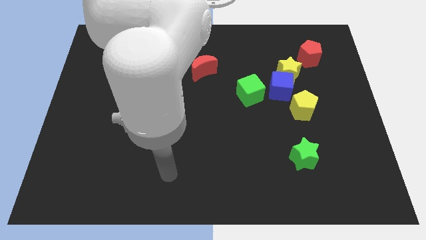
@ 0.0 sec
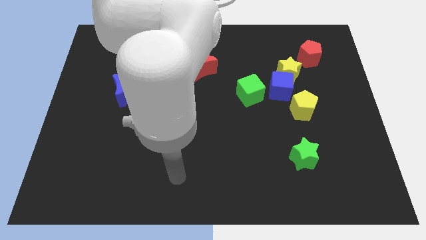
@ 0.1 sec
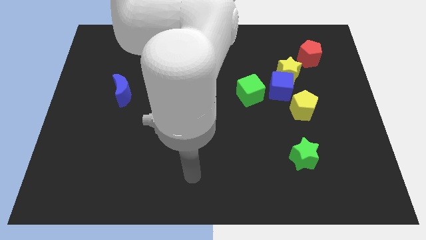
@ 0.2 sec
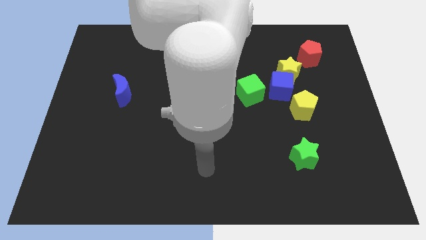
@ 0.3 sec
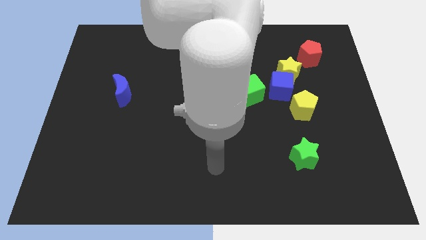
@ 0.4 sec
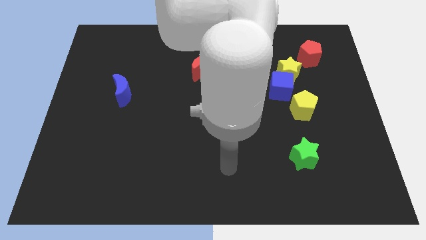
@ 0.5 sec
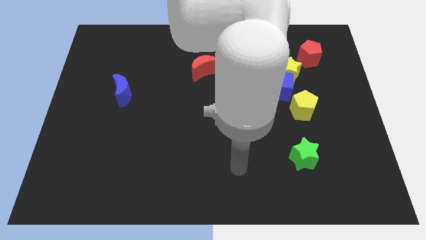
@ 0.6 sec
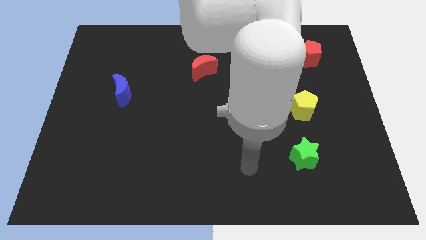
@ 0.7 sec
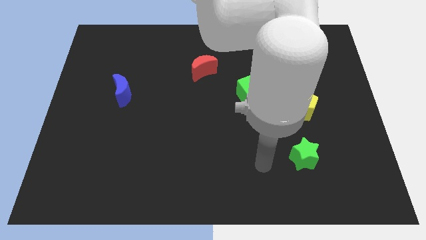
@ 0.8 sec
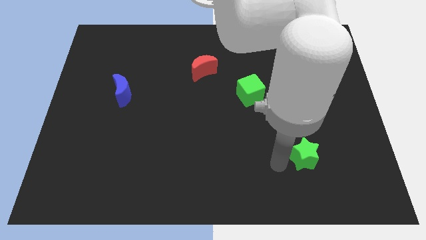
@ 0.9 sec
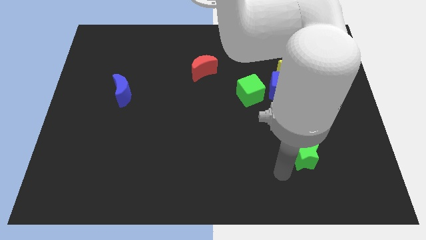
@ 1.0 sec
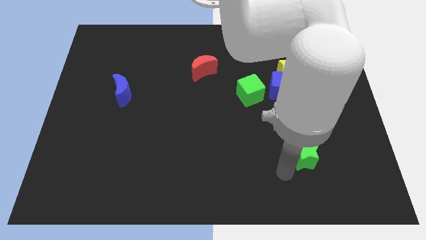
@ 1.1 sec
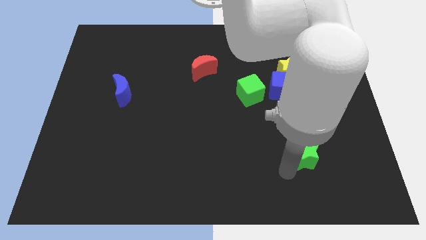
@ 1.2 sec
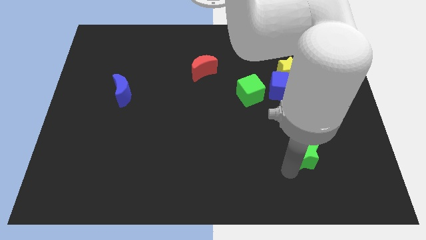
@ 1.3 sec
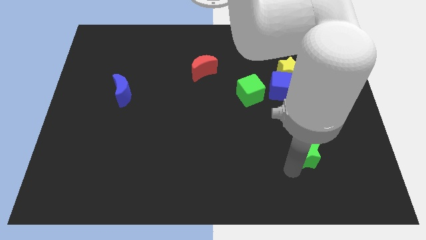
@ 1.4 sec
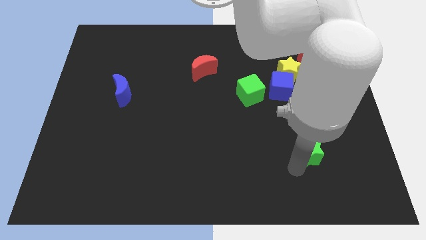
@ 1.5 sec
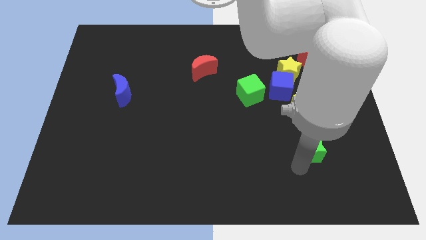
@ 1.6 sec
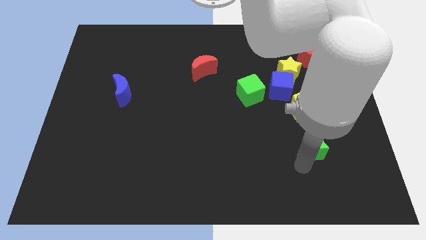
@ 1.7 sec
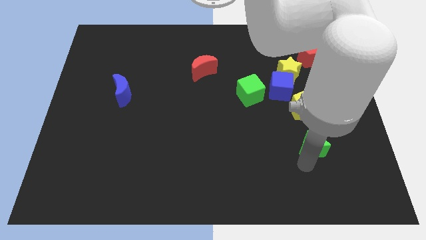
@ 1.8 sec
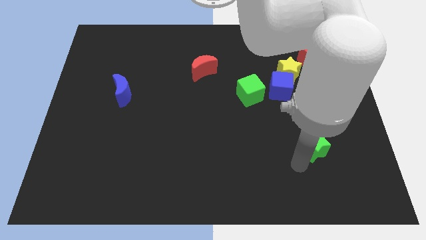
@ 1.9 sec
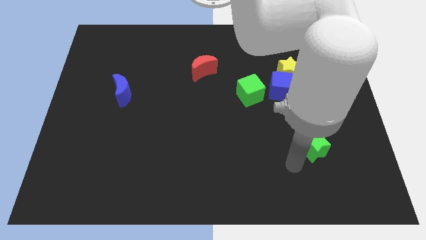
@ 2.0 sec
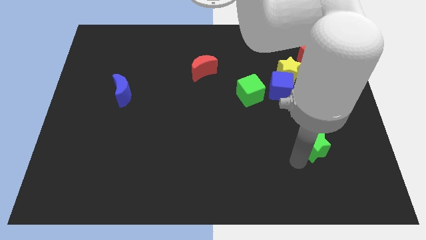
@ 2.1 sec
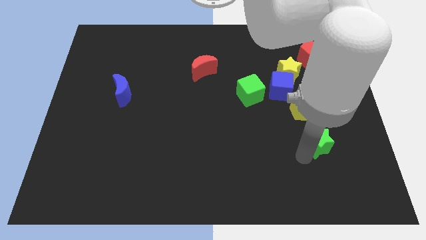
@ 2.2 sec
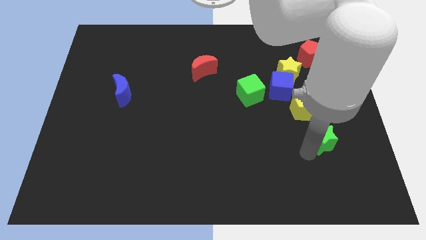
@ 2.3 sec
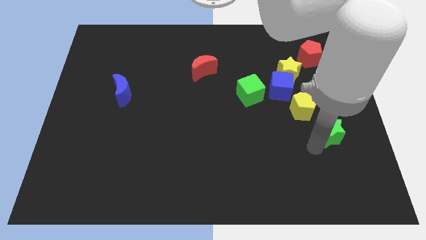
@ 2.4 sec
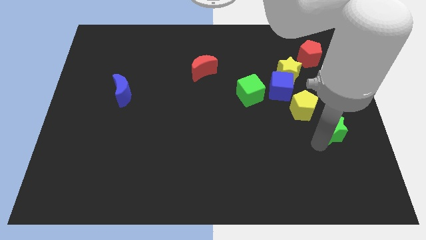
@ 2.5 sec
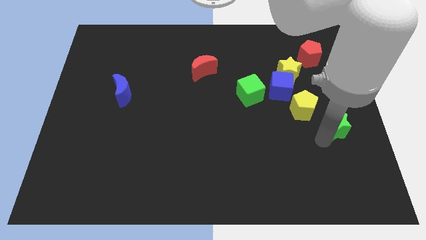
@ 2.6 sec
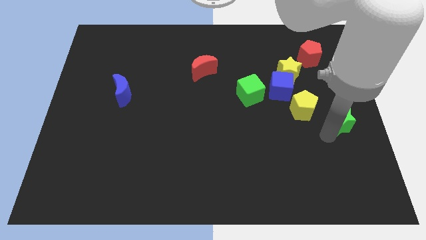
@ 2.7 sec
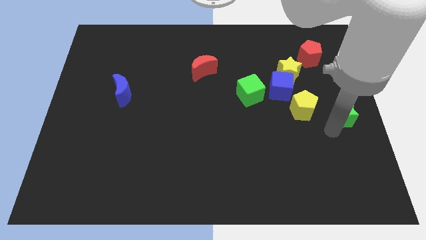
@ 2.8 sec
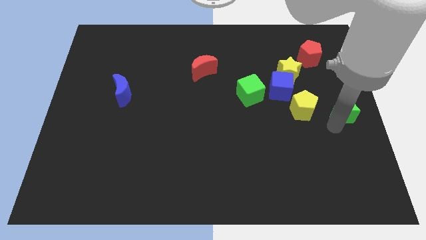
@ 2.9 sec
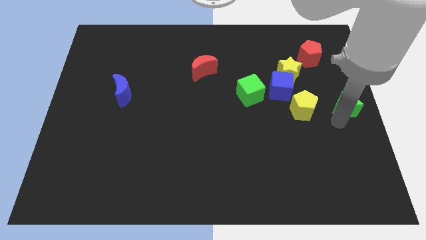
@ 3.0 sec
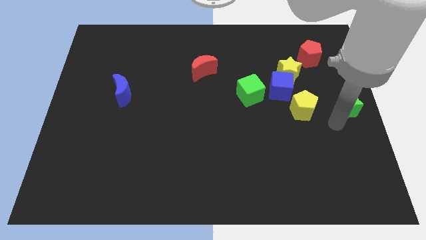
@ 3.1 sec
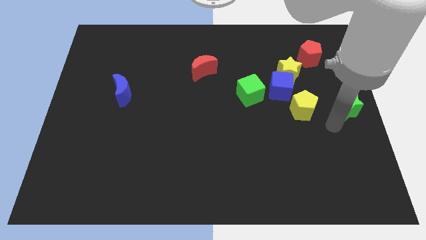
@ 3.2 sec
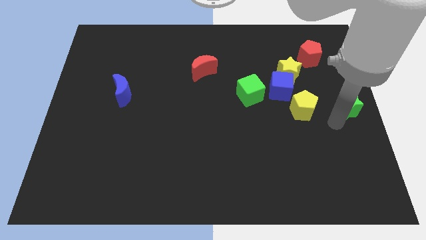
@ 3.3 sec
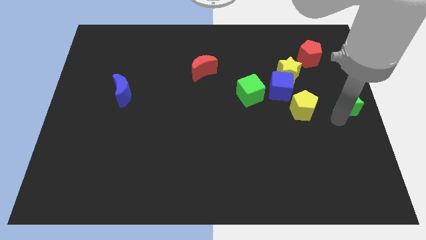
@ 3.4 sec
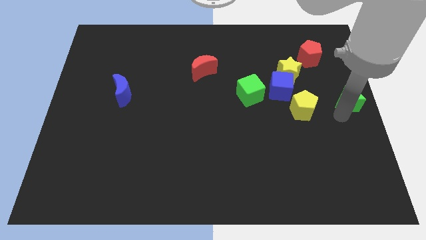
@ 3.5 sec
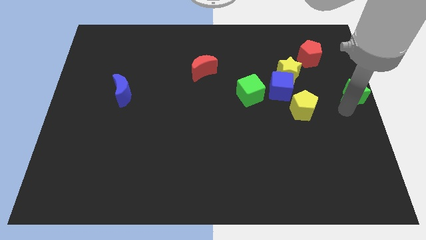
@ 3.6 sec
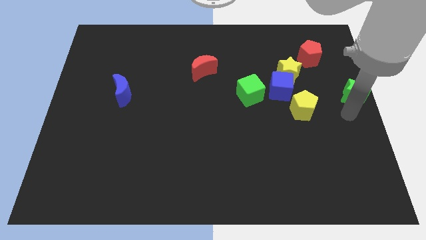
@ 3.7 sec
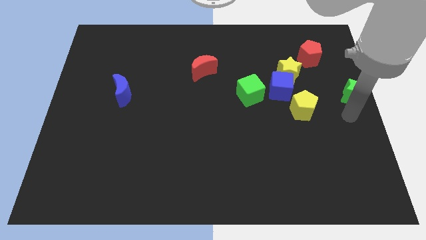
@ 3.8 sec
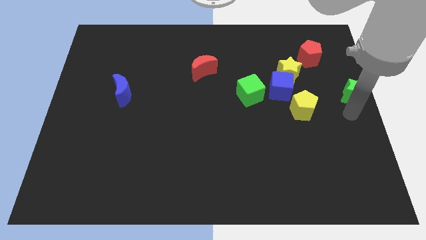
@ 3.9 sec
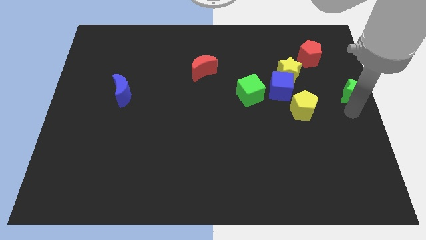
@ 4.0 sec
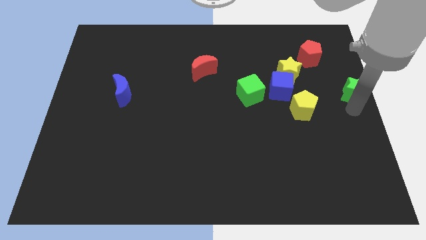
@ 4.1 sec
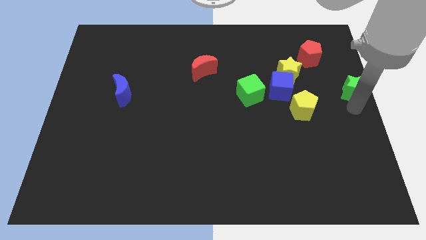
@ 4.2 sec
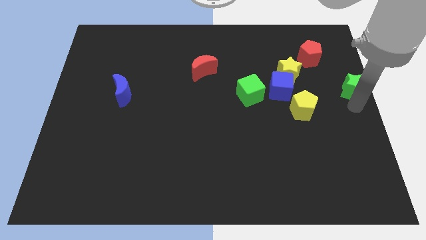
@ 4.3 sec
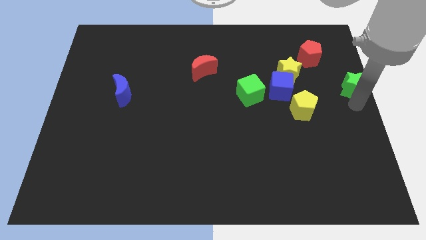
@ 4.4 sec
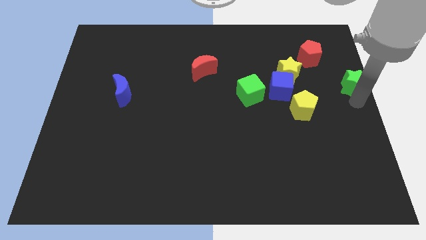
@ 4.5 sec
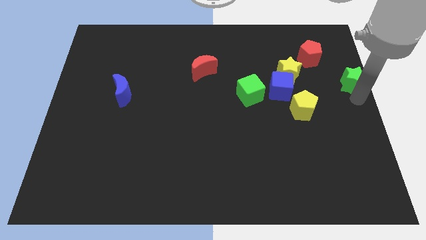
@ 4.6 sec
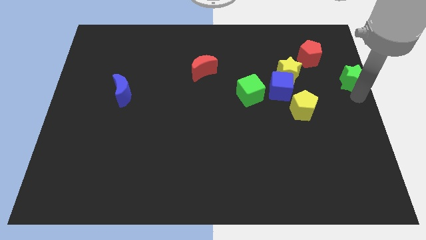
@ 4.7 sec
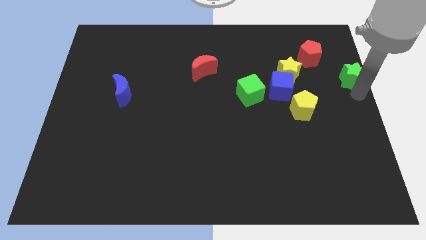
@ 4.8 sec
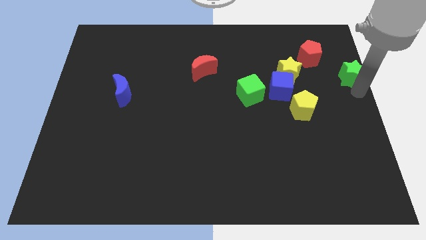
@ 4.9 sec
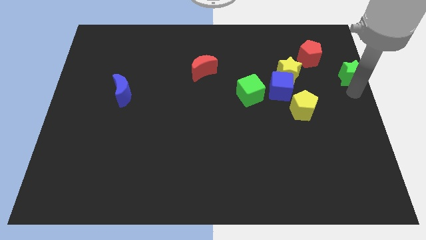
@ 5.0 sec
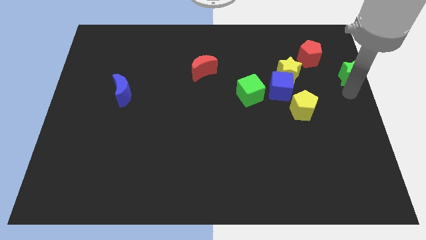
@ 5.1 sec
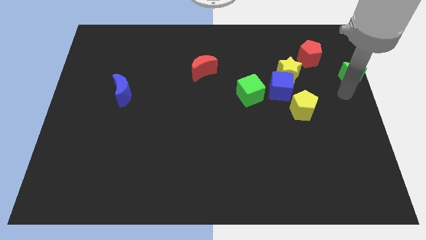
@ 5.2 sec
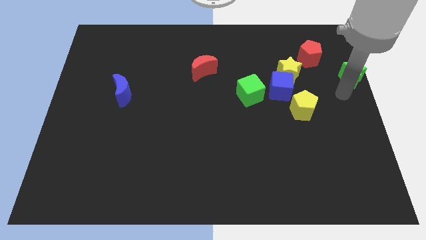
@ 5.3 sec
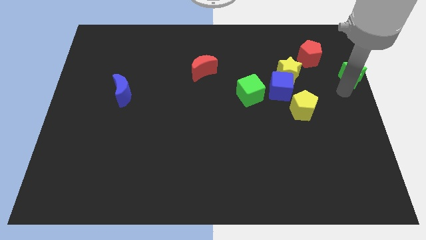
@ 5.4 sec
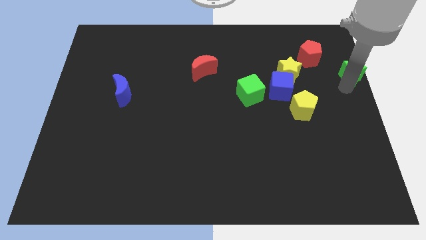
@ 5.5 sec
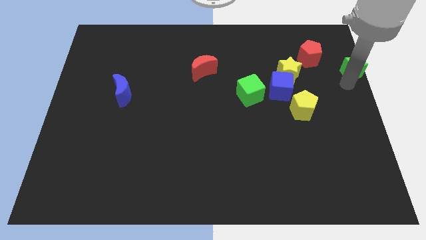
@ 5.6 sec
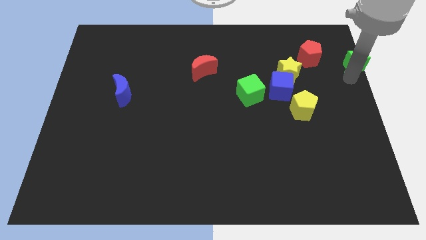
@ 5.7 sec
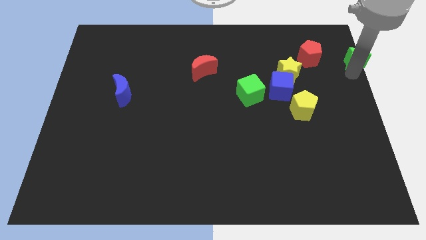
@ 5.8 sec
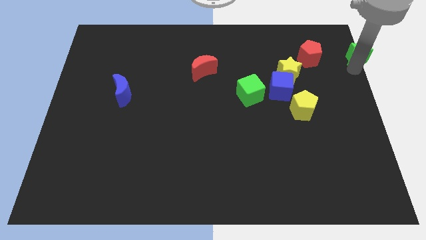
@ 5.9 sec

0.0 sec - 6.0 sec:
slide the green star to the top right corner
